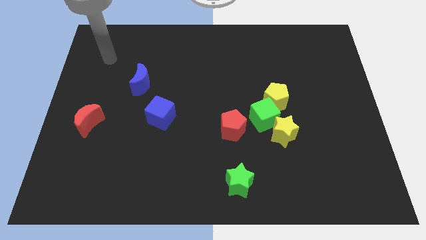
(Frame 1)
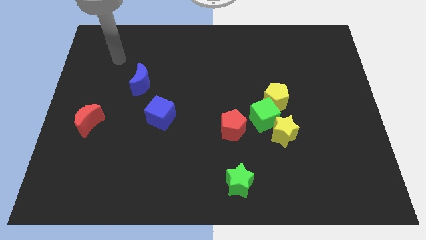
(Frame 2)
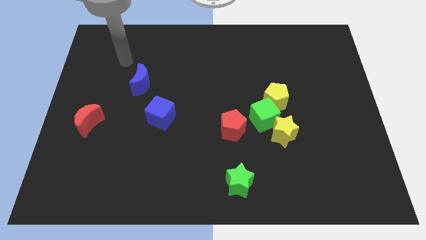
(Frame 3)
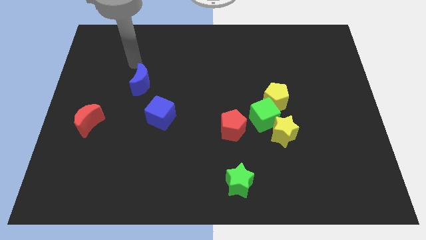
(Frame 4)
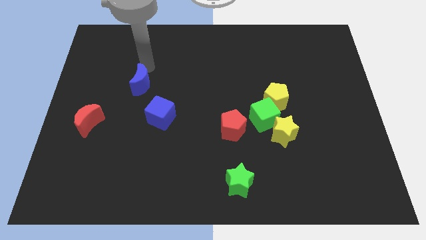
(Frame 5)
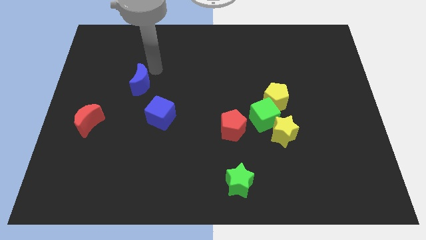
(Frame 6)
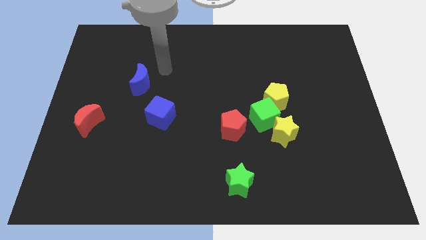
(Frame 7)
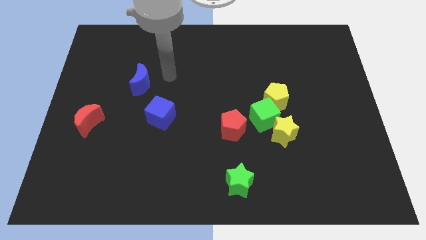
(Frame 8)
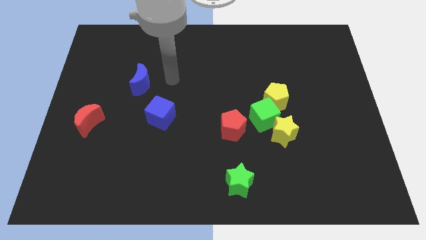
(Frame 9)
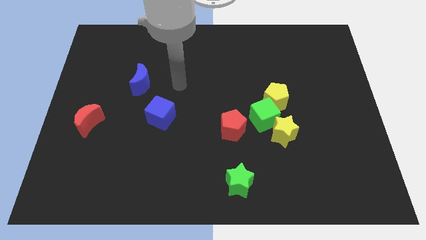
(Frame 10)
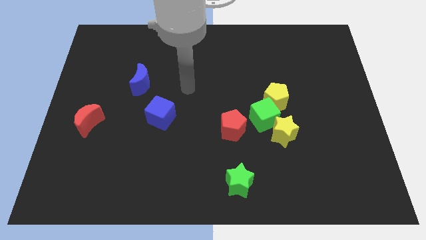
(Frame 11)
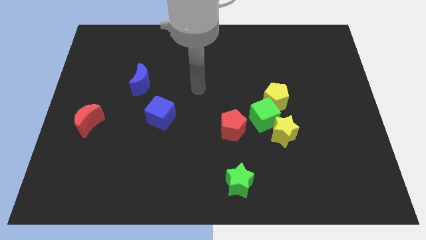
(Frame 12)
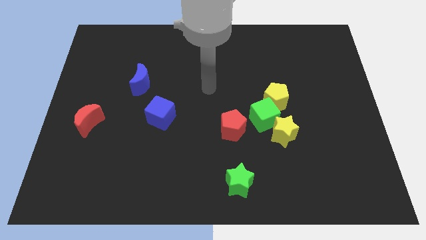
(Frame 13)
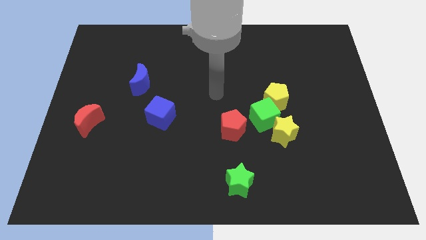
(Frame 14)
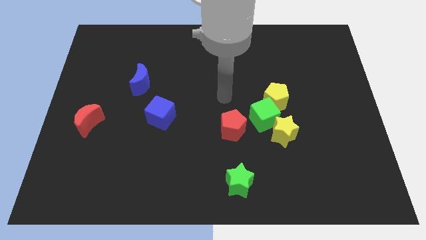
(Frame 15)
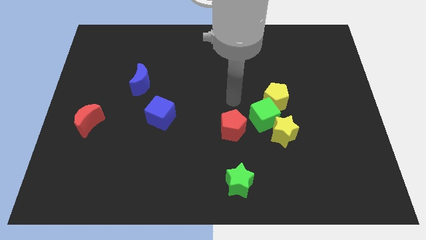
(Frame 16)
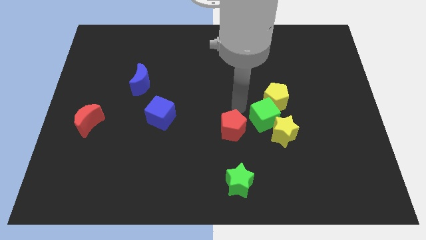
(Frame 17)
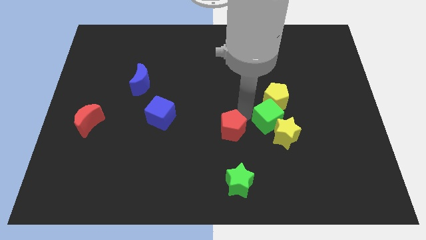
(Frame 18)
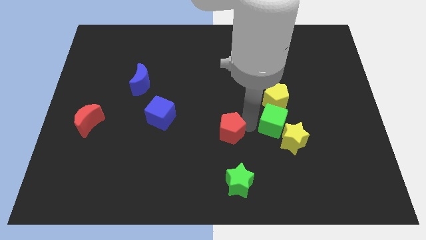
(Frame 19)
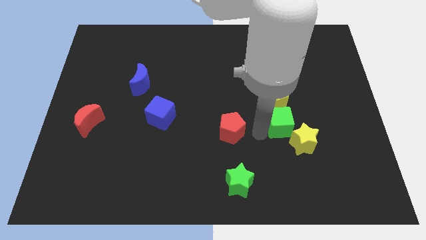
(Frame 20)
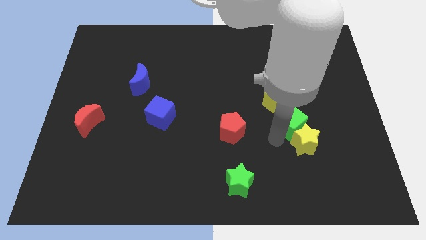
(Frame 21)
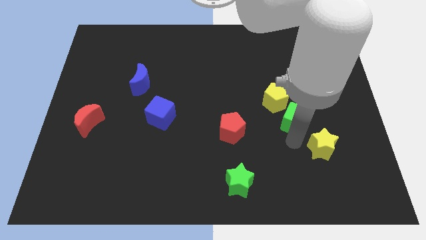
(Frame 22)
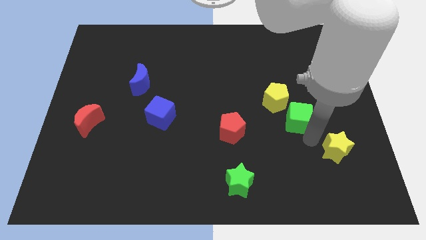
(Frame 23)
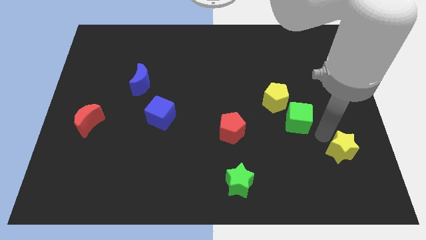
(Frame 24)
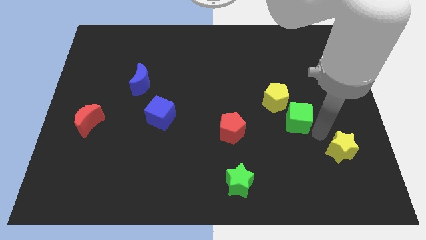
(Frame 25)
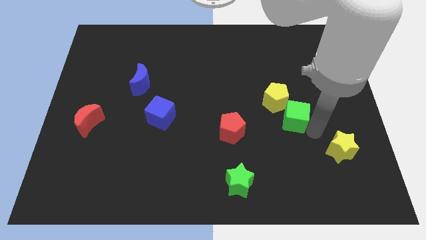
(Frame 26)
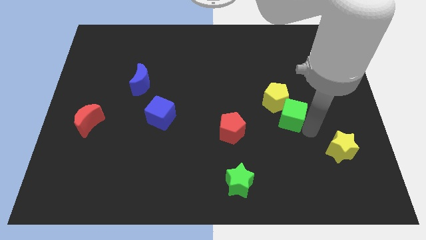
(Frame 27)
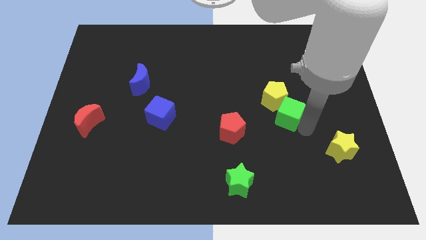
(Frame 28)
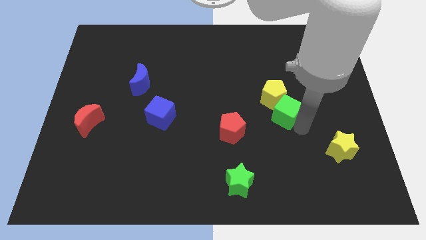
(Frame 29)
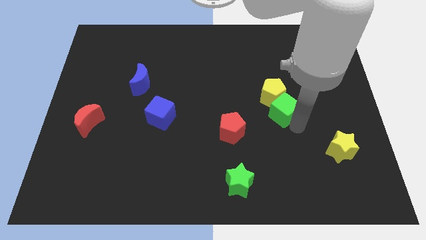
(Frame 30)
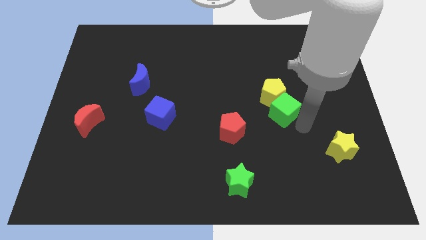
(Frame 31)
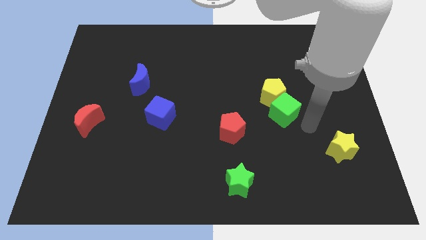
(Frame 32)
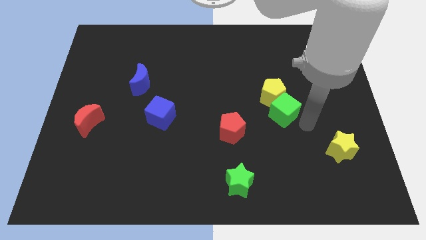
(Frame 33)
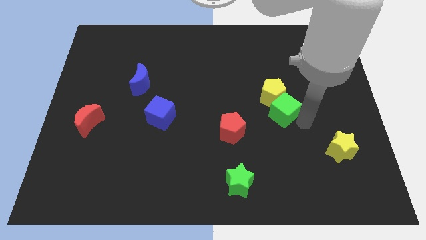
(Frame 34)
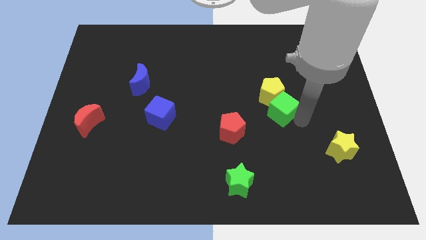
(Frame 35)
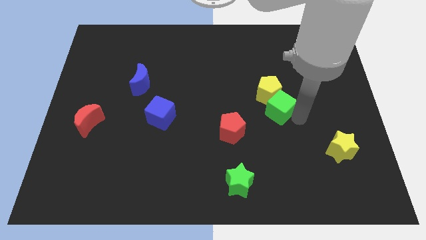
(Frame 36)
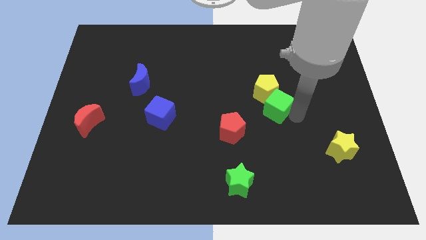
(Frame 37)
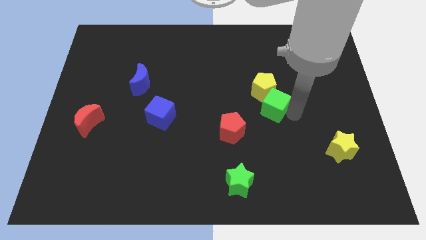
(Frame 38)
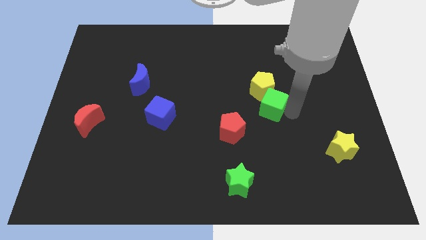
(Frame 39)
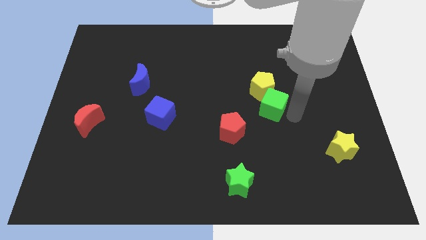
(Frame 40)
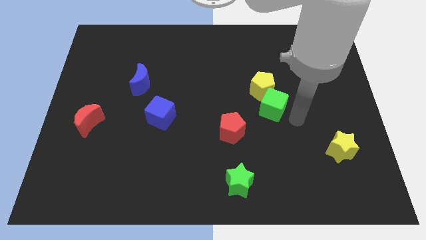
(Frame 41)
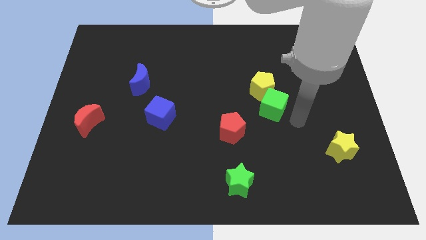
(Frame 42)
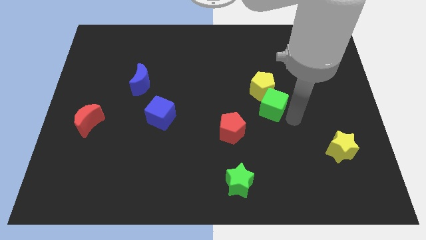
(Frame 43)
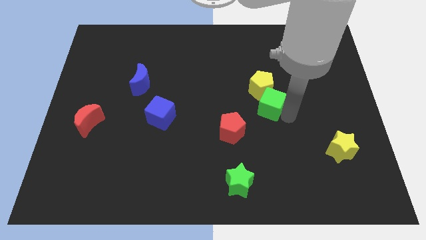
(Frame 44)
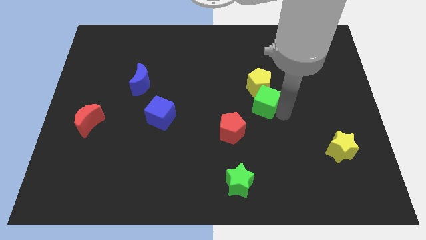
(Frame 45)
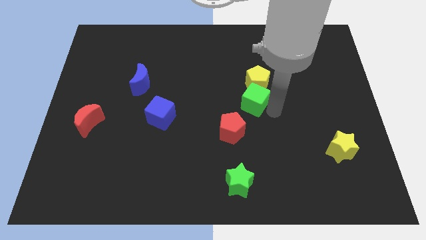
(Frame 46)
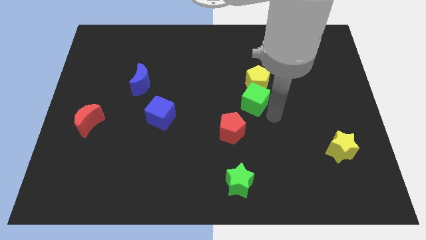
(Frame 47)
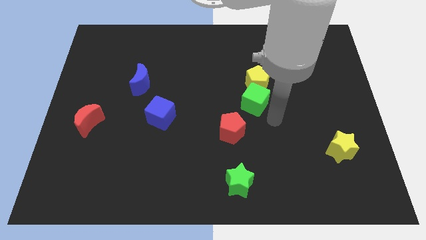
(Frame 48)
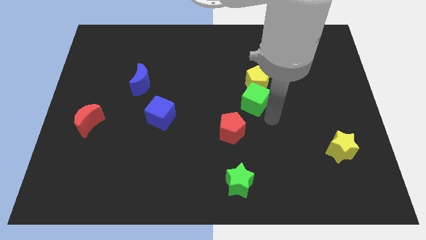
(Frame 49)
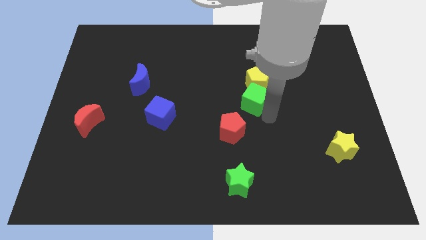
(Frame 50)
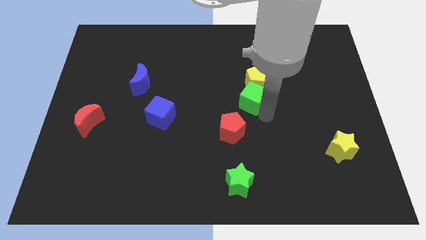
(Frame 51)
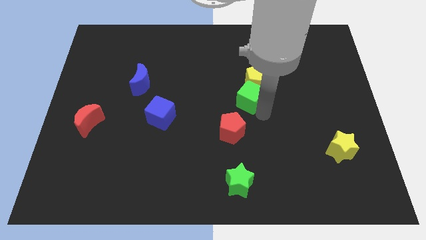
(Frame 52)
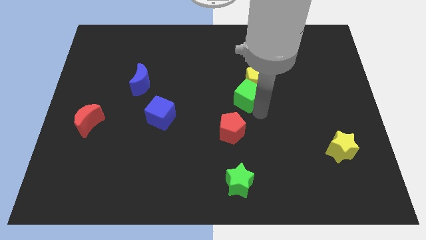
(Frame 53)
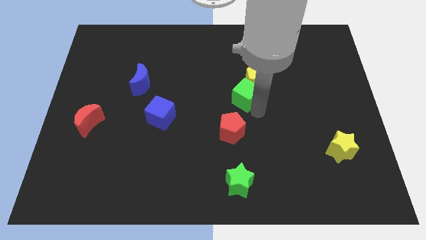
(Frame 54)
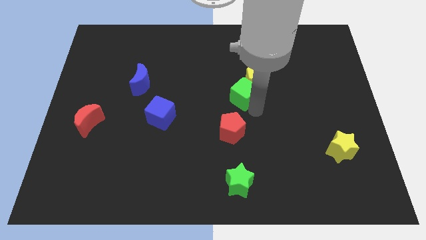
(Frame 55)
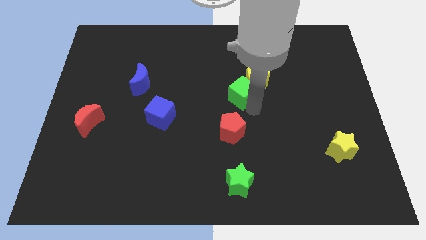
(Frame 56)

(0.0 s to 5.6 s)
pull the green cube apart from the yellow pentagon, yellow star, and red pentagon

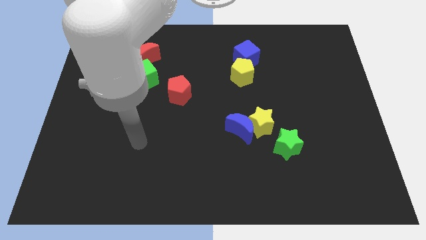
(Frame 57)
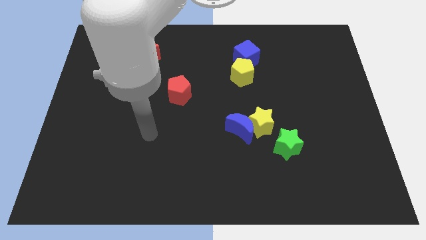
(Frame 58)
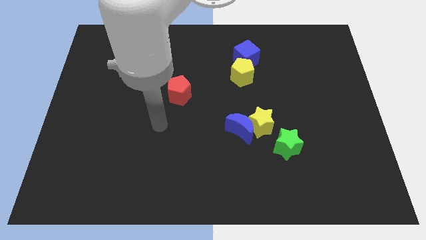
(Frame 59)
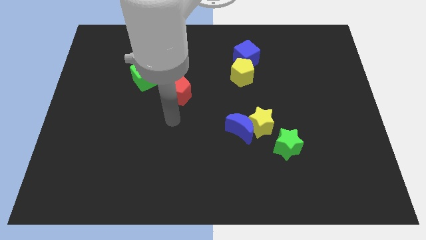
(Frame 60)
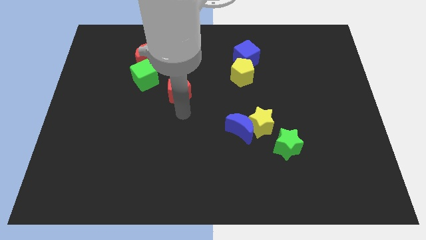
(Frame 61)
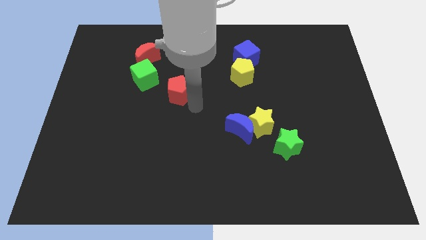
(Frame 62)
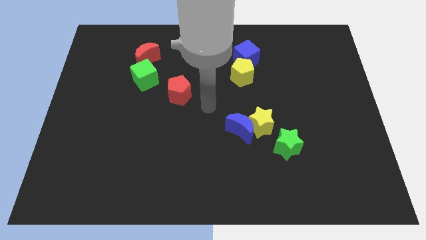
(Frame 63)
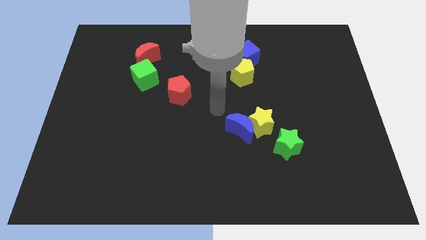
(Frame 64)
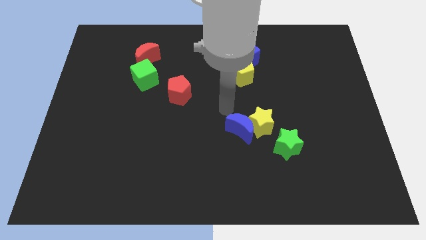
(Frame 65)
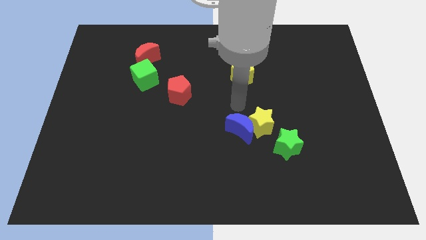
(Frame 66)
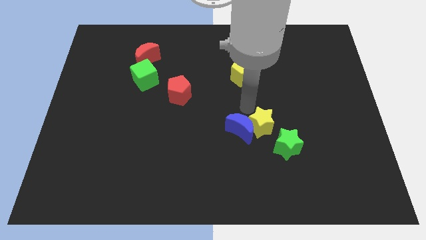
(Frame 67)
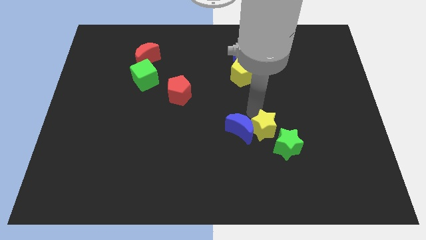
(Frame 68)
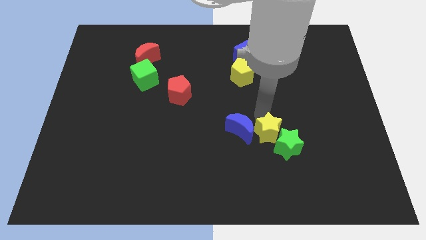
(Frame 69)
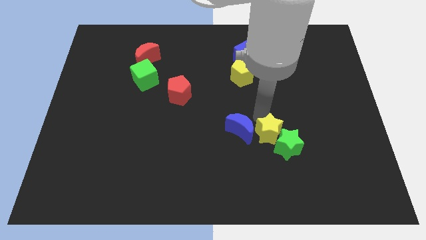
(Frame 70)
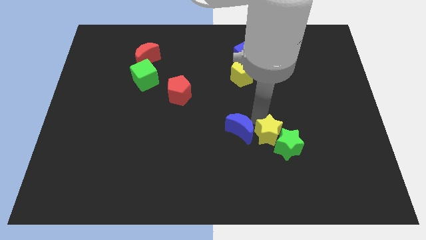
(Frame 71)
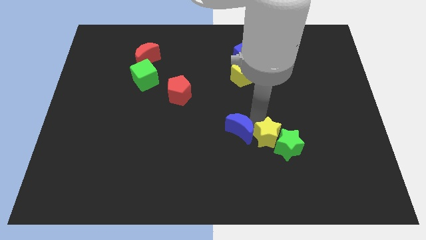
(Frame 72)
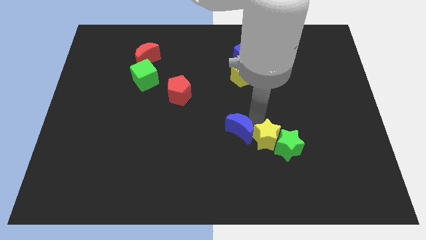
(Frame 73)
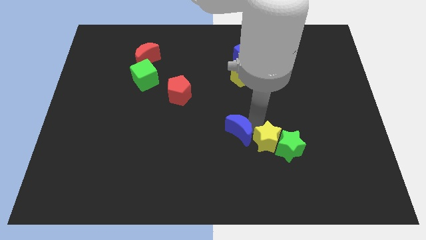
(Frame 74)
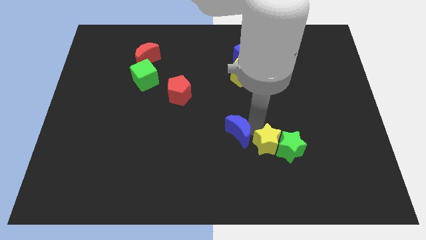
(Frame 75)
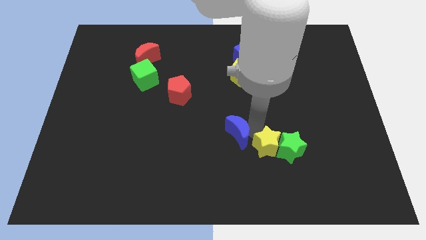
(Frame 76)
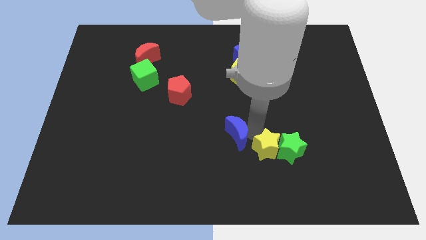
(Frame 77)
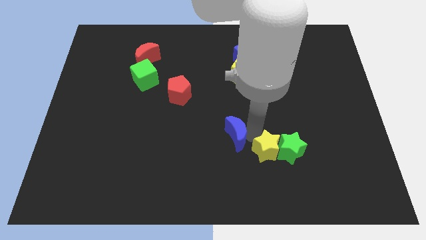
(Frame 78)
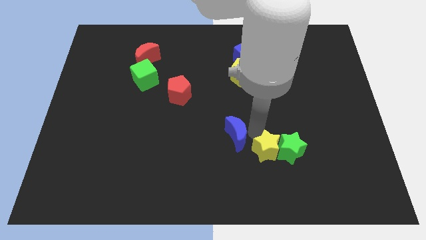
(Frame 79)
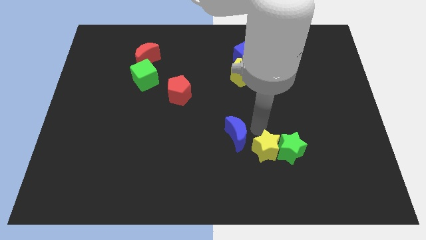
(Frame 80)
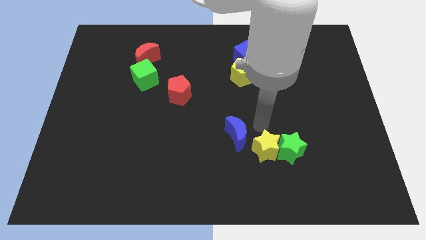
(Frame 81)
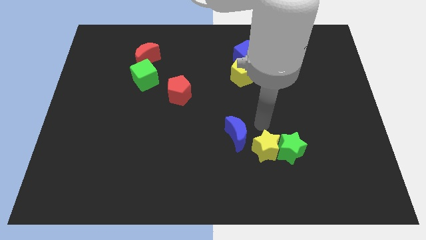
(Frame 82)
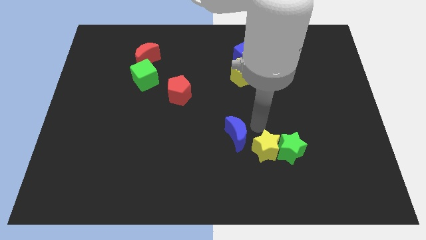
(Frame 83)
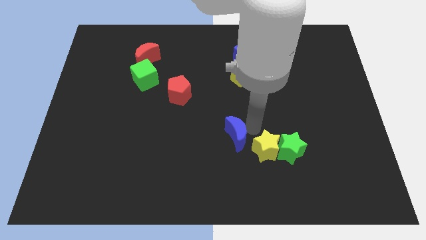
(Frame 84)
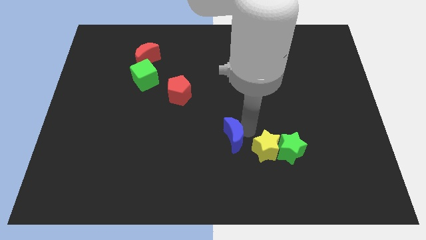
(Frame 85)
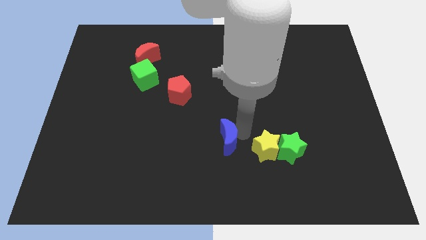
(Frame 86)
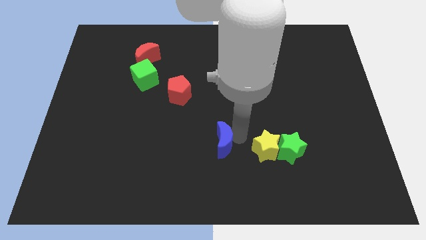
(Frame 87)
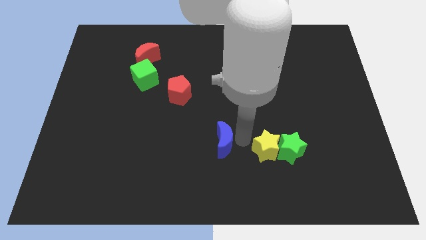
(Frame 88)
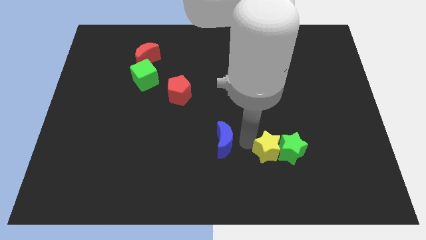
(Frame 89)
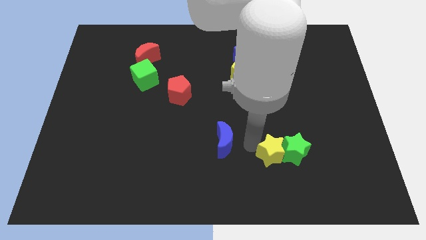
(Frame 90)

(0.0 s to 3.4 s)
pull the blue moon apart from the yellow star

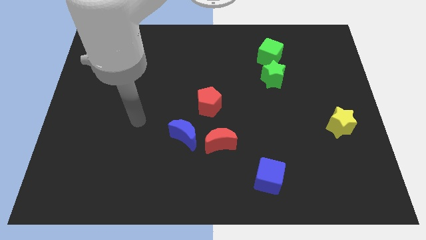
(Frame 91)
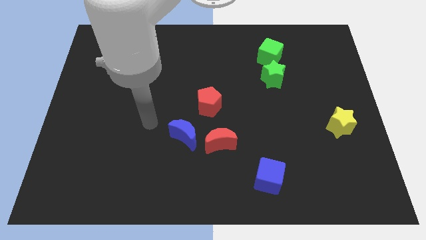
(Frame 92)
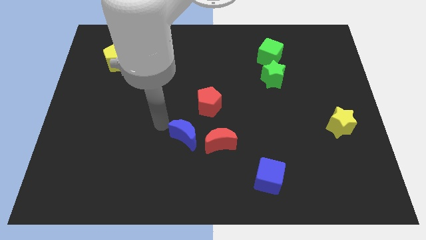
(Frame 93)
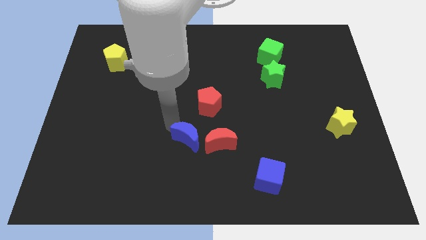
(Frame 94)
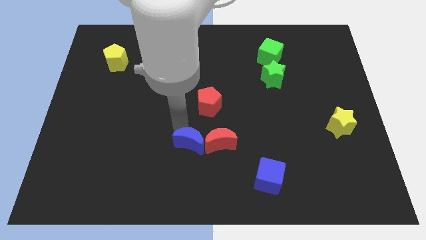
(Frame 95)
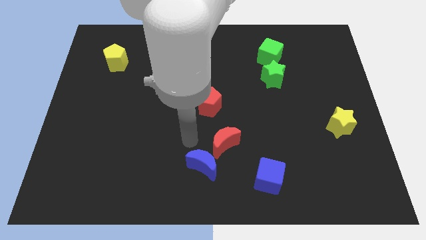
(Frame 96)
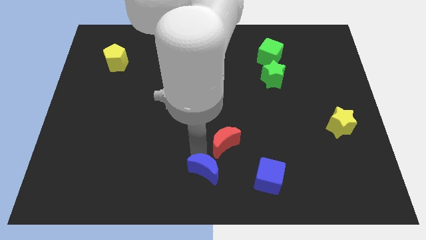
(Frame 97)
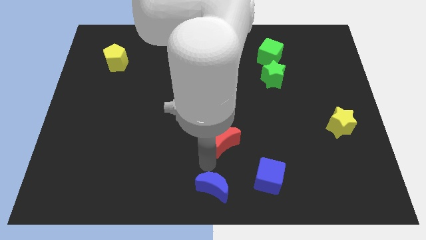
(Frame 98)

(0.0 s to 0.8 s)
pull the red moon apart from the blue moon
